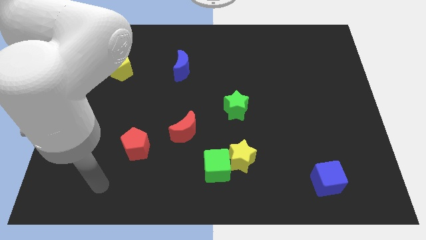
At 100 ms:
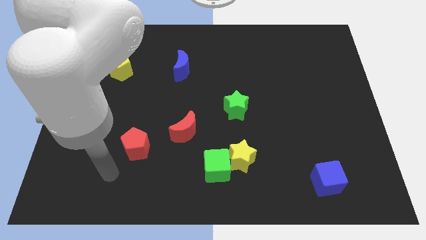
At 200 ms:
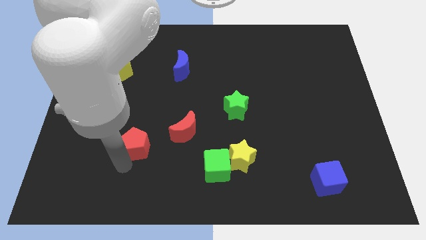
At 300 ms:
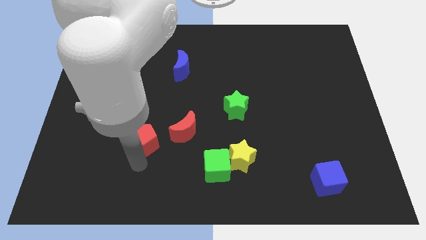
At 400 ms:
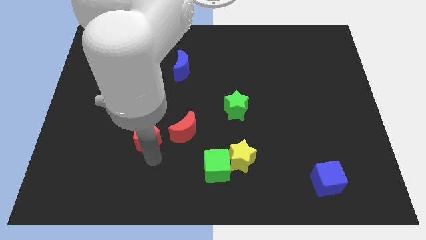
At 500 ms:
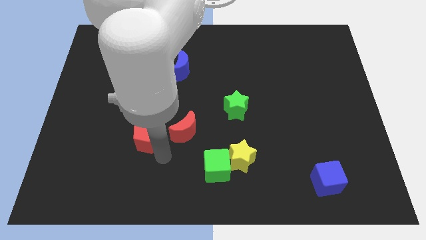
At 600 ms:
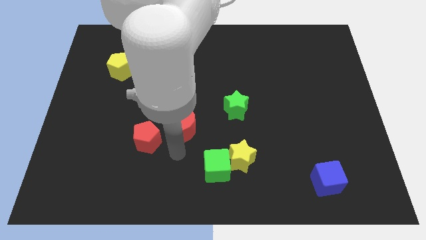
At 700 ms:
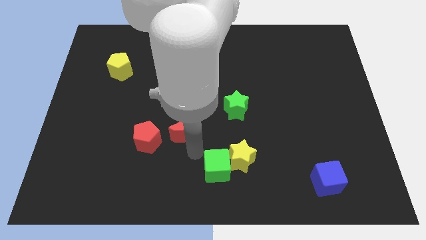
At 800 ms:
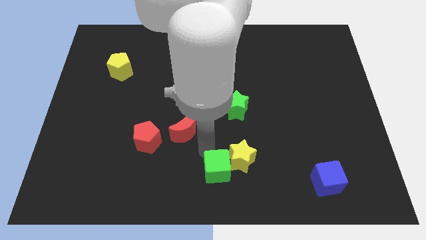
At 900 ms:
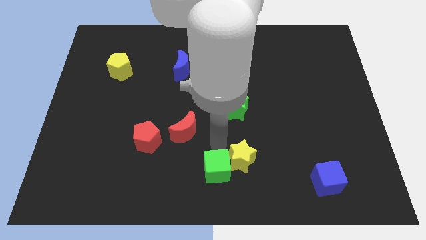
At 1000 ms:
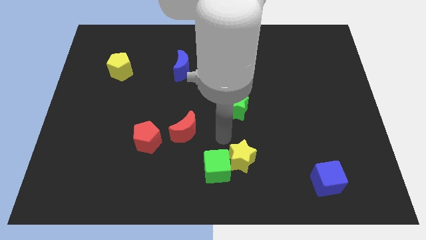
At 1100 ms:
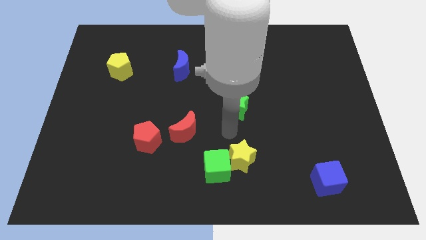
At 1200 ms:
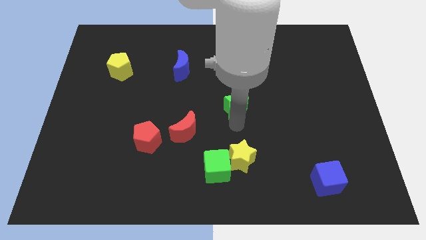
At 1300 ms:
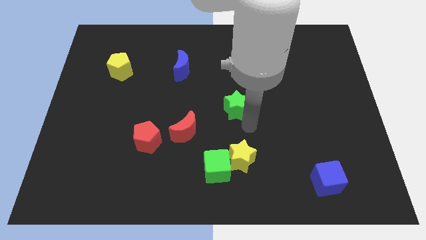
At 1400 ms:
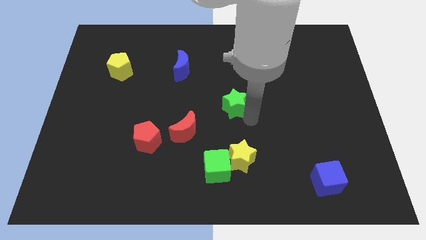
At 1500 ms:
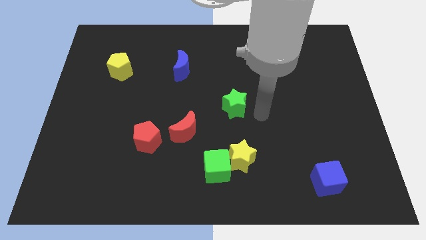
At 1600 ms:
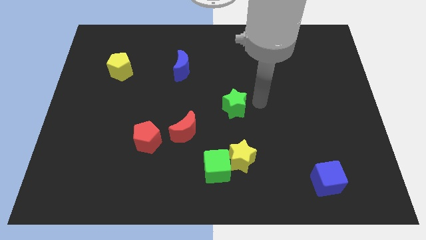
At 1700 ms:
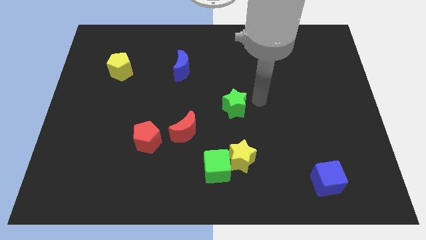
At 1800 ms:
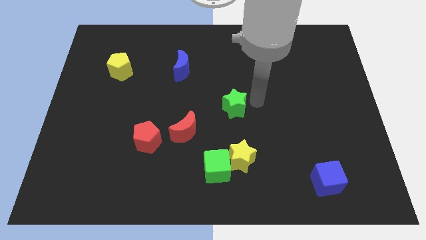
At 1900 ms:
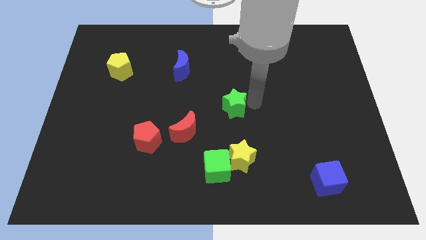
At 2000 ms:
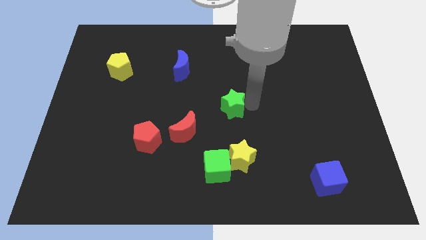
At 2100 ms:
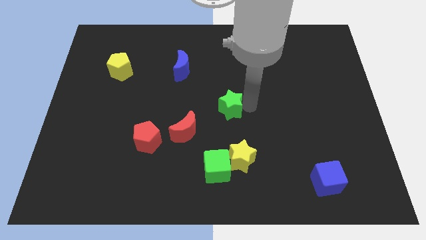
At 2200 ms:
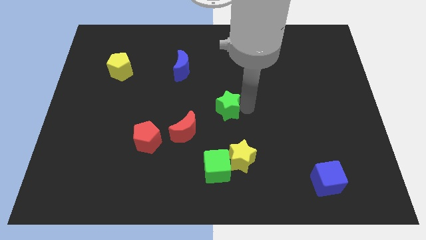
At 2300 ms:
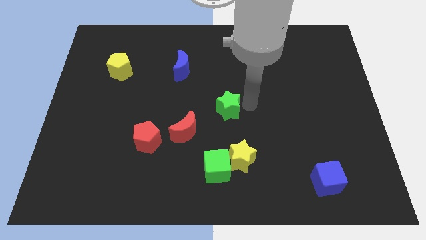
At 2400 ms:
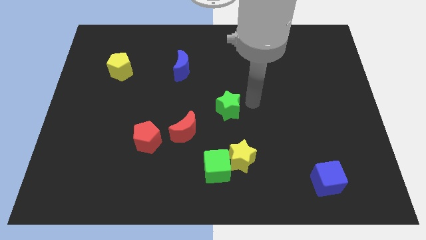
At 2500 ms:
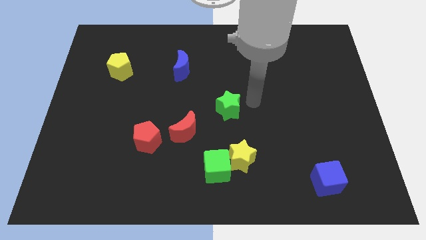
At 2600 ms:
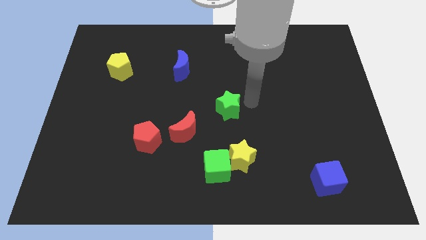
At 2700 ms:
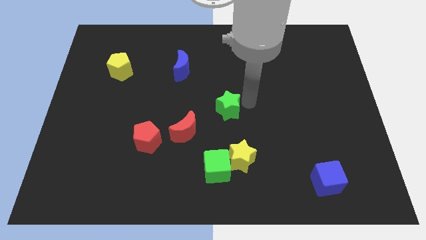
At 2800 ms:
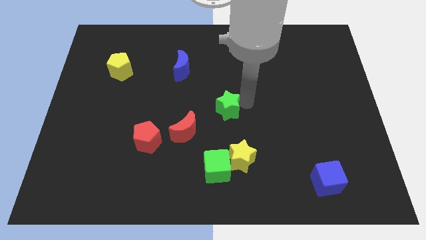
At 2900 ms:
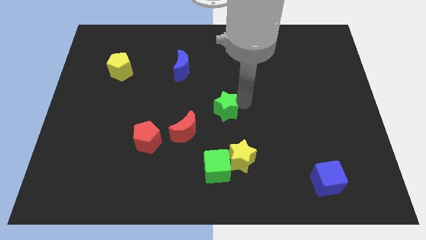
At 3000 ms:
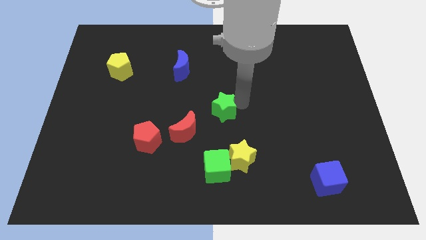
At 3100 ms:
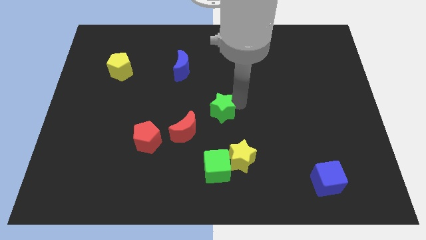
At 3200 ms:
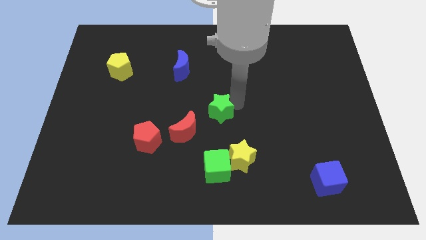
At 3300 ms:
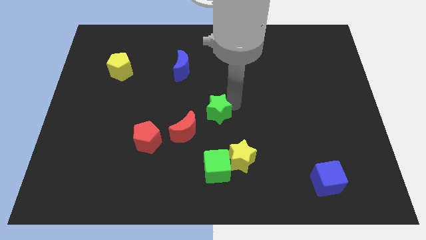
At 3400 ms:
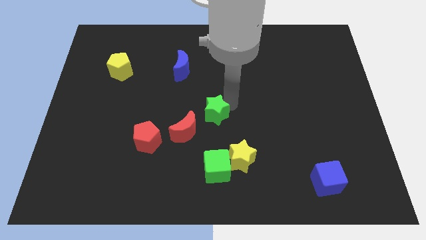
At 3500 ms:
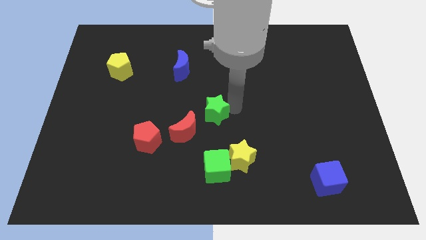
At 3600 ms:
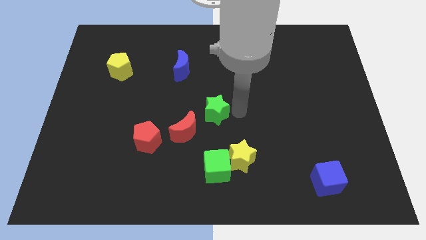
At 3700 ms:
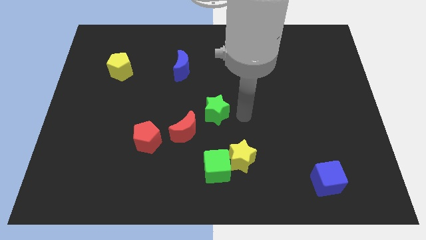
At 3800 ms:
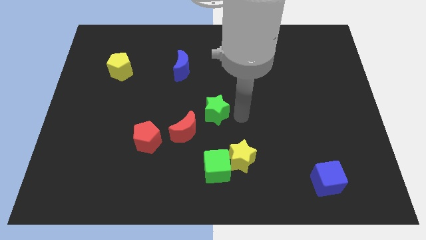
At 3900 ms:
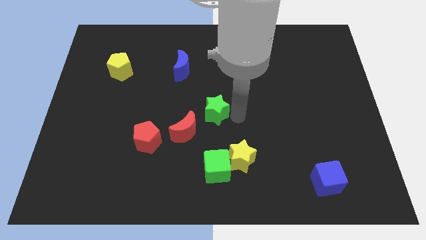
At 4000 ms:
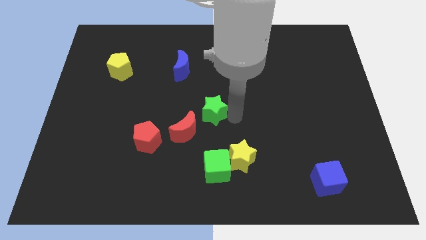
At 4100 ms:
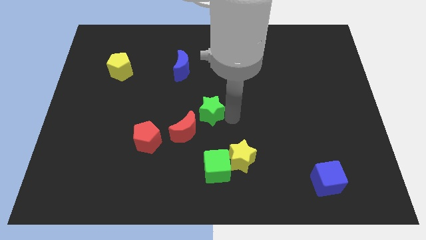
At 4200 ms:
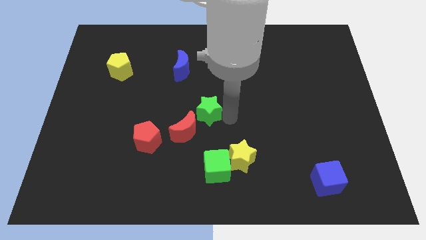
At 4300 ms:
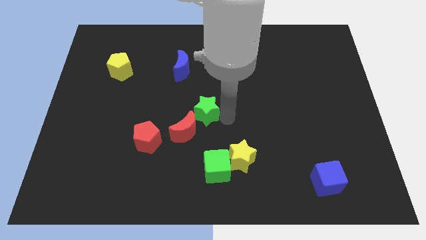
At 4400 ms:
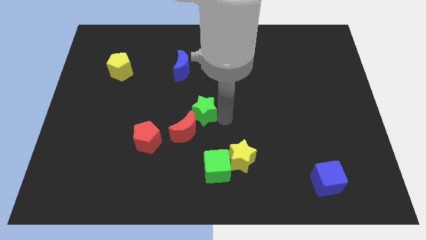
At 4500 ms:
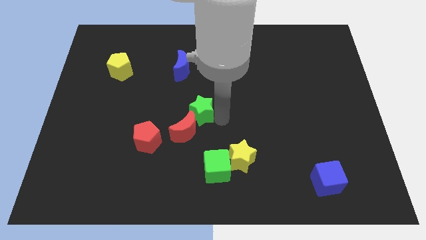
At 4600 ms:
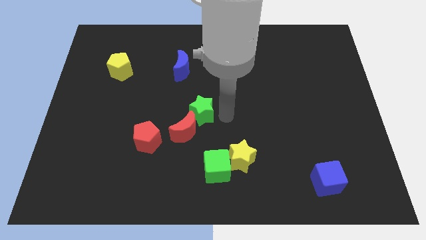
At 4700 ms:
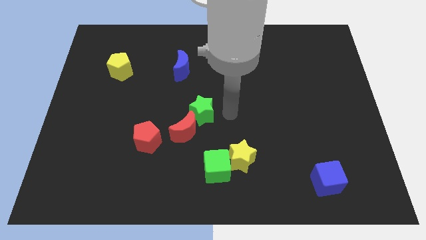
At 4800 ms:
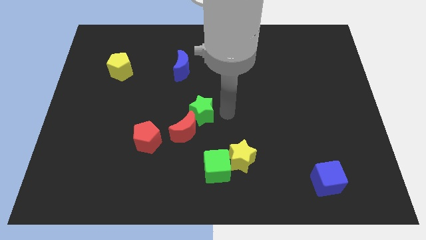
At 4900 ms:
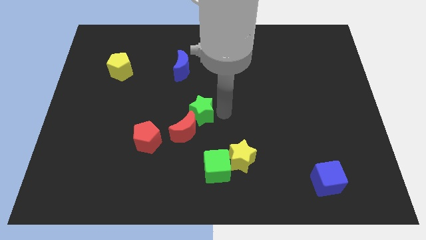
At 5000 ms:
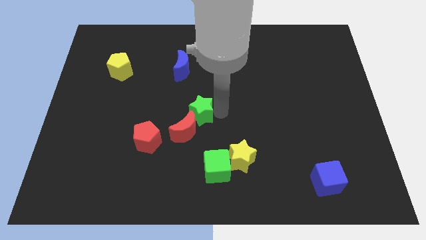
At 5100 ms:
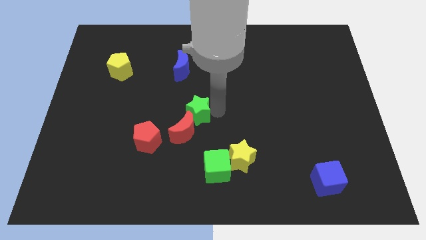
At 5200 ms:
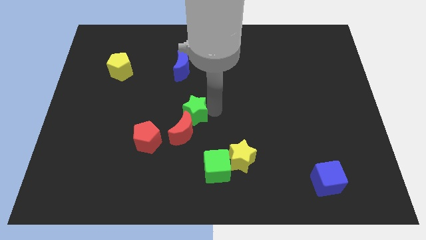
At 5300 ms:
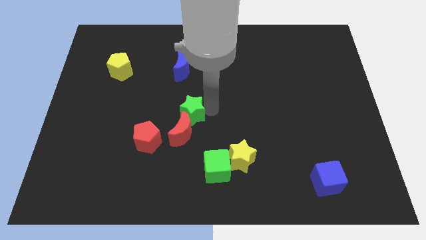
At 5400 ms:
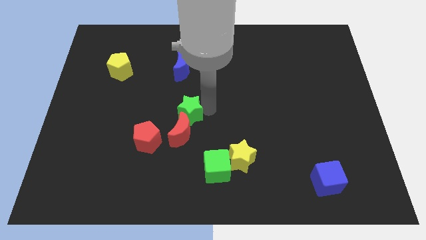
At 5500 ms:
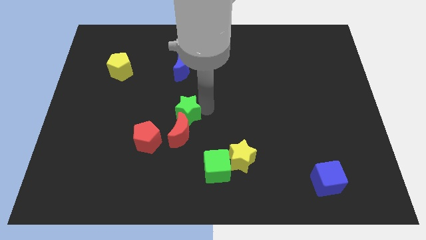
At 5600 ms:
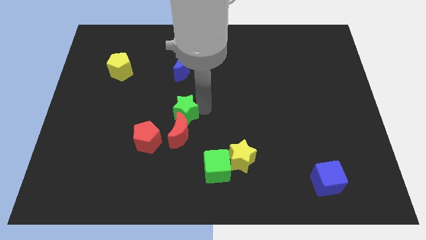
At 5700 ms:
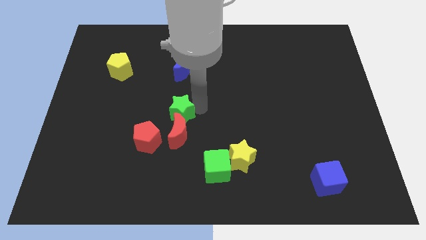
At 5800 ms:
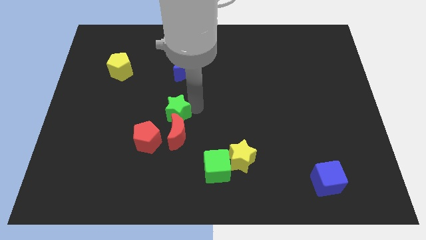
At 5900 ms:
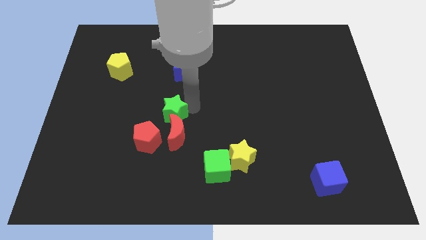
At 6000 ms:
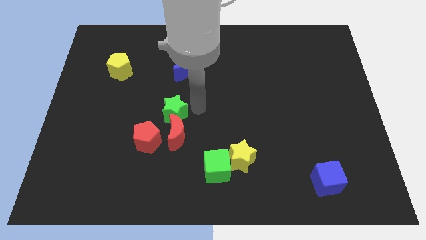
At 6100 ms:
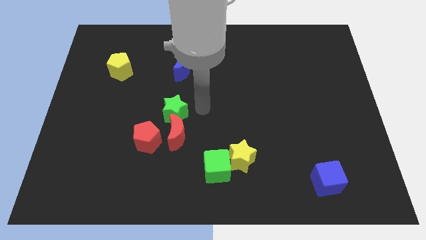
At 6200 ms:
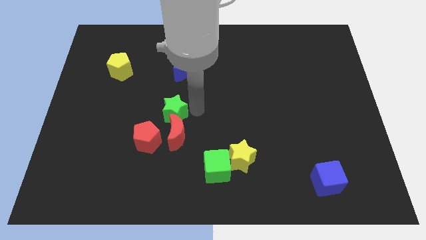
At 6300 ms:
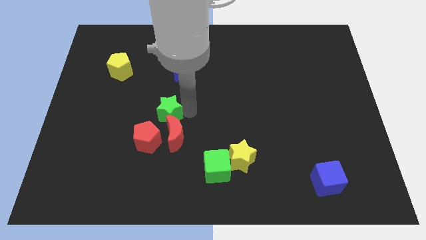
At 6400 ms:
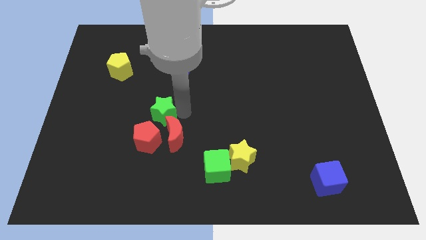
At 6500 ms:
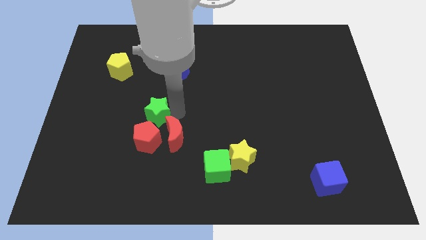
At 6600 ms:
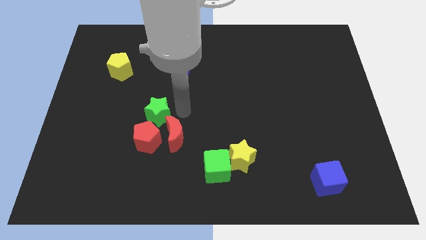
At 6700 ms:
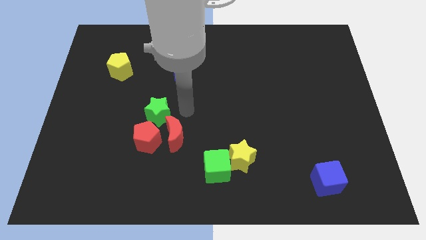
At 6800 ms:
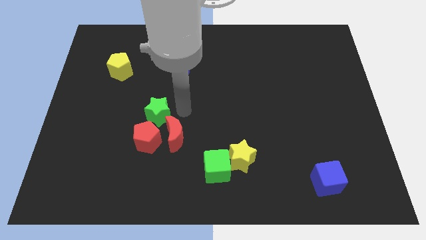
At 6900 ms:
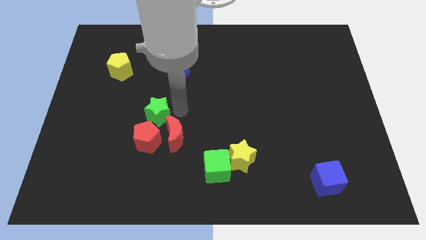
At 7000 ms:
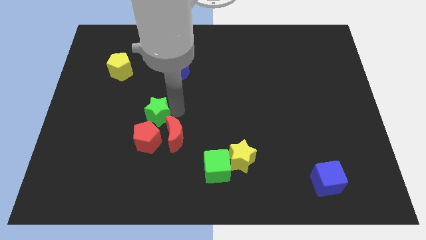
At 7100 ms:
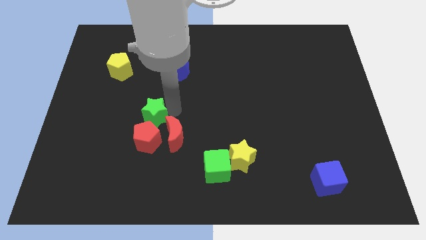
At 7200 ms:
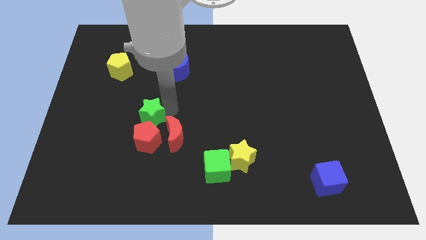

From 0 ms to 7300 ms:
move the green star to the top left side of the red pentagon
